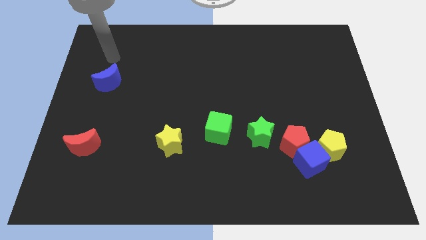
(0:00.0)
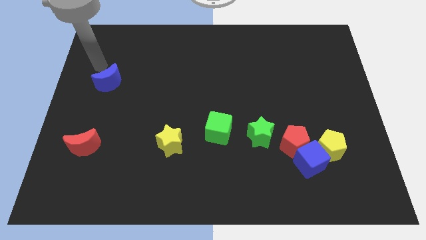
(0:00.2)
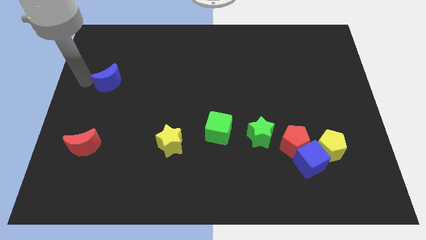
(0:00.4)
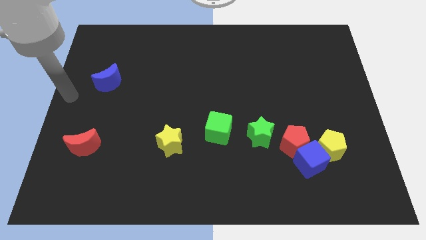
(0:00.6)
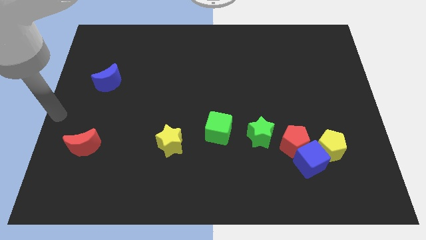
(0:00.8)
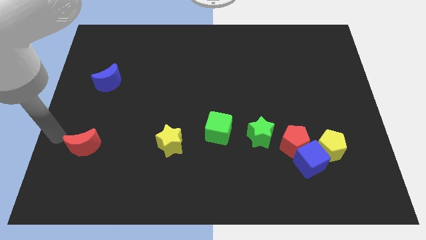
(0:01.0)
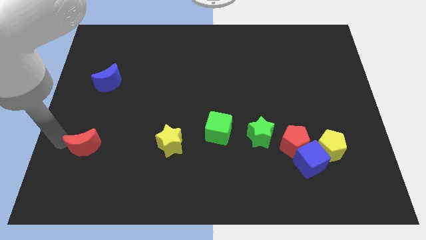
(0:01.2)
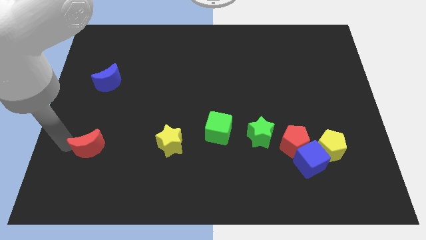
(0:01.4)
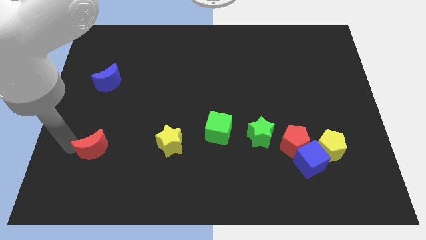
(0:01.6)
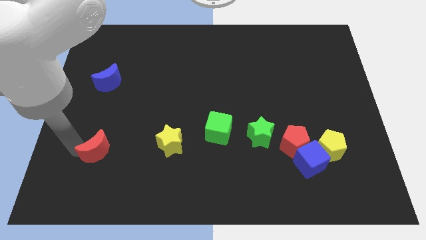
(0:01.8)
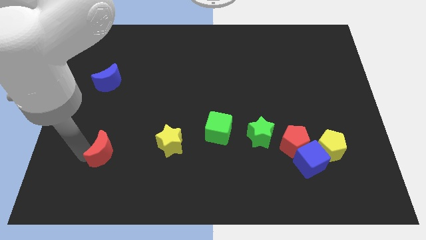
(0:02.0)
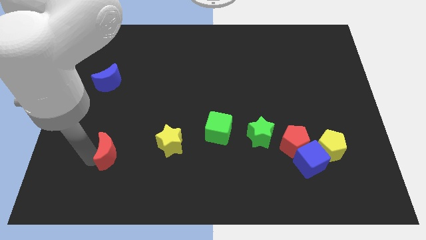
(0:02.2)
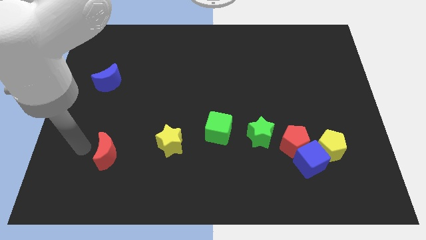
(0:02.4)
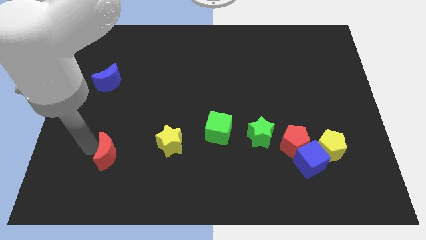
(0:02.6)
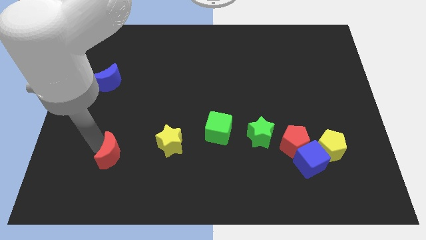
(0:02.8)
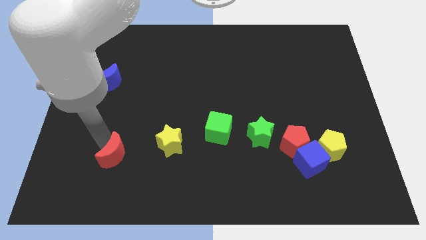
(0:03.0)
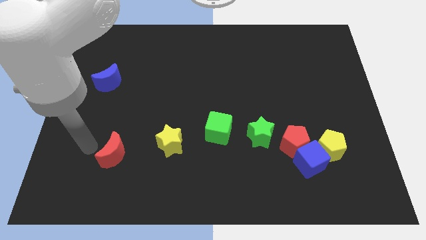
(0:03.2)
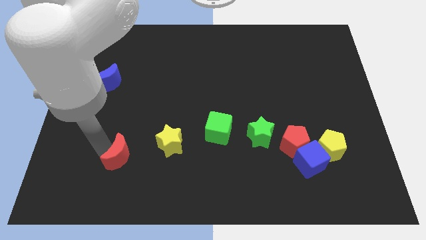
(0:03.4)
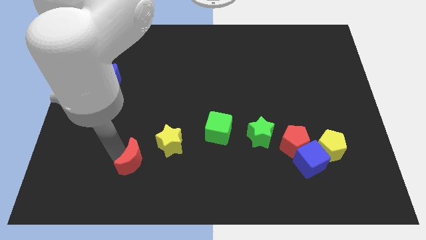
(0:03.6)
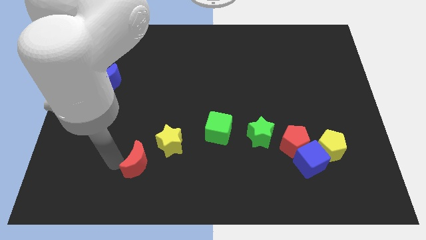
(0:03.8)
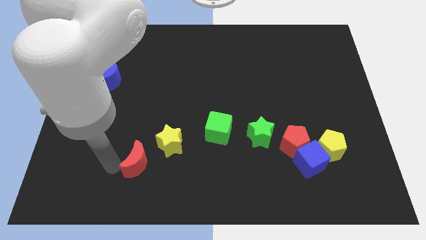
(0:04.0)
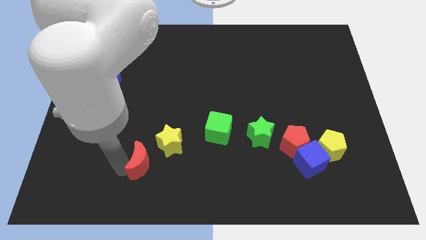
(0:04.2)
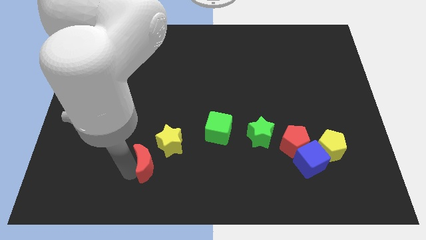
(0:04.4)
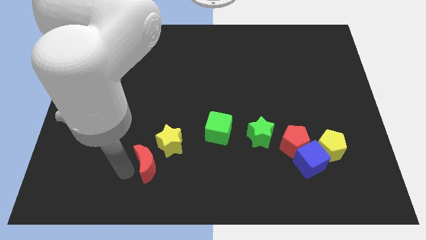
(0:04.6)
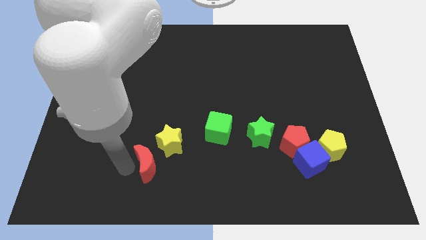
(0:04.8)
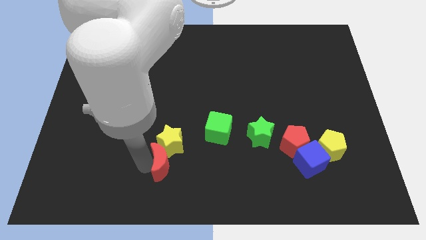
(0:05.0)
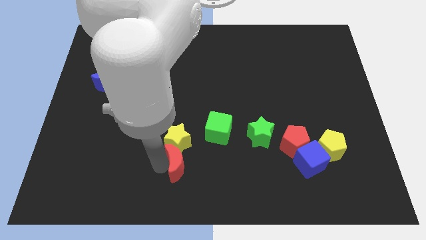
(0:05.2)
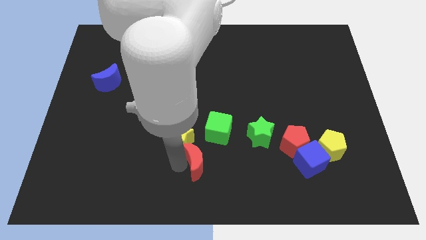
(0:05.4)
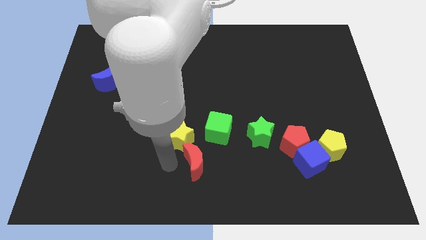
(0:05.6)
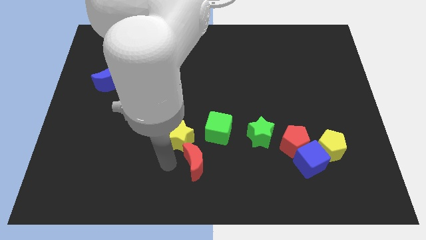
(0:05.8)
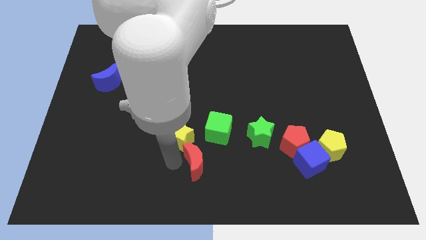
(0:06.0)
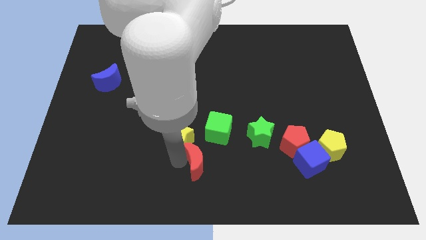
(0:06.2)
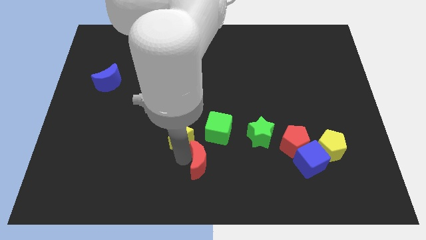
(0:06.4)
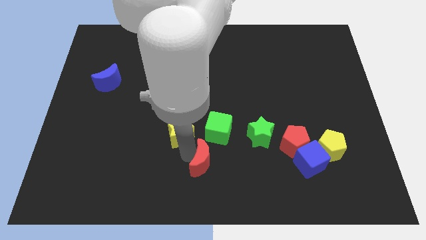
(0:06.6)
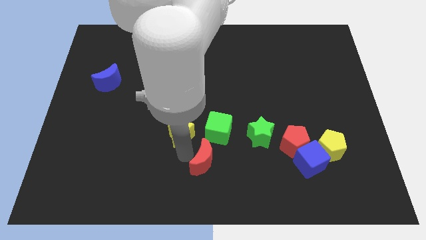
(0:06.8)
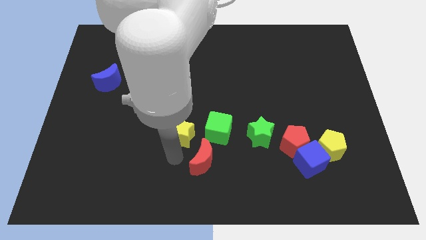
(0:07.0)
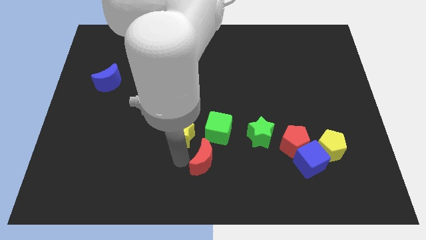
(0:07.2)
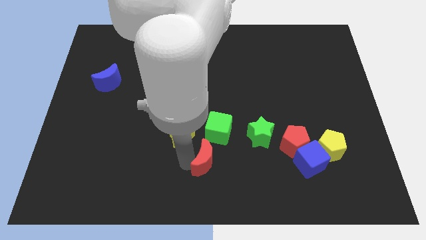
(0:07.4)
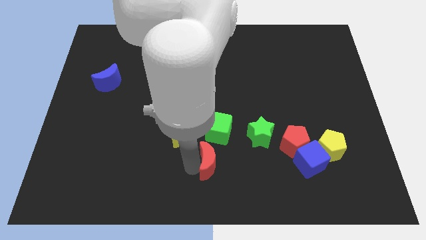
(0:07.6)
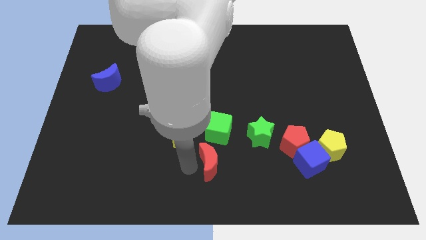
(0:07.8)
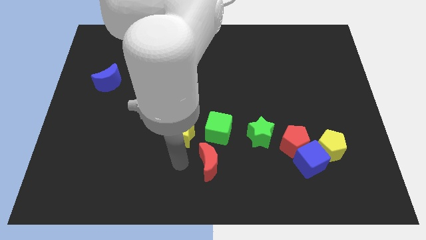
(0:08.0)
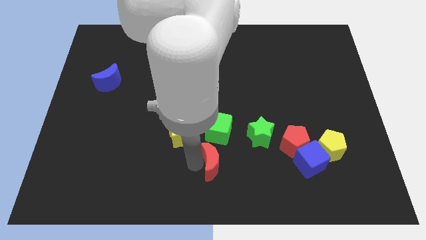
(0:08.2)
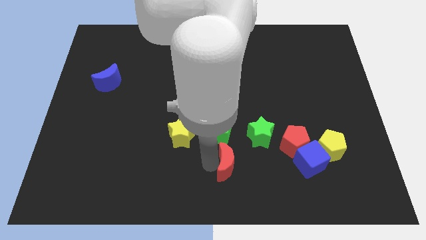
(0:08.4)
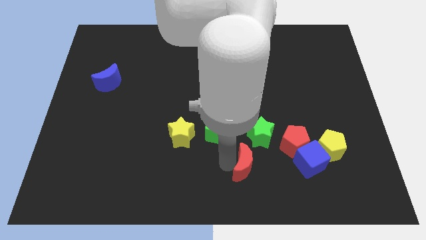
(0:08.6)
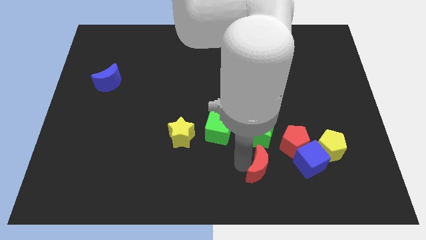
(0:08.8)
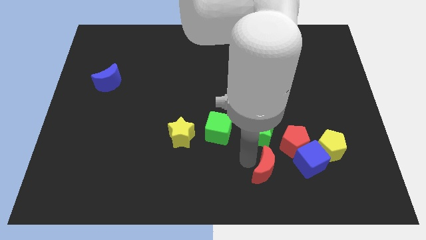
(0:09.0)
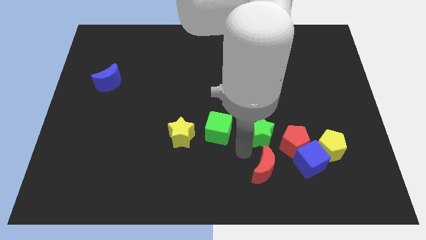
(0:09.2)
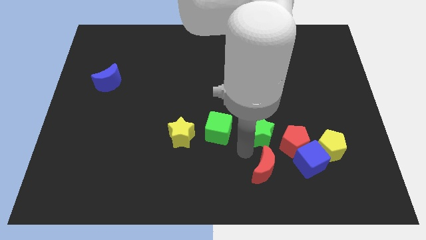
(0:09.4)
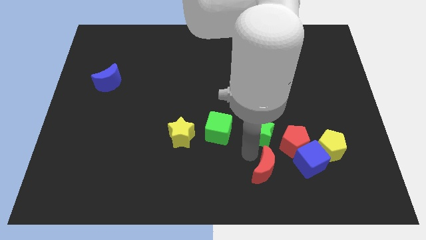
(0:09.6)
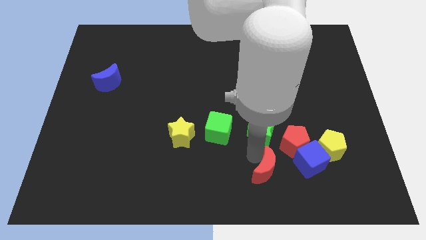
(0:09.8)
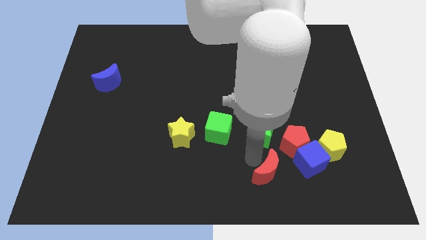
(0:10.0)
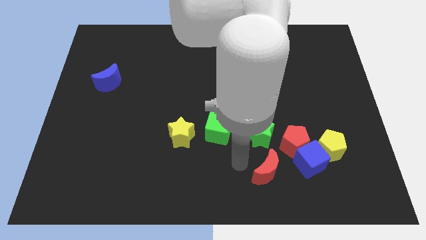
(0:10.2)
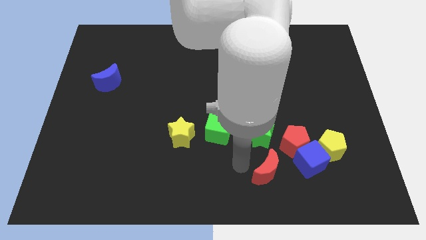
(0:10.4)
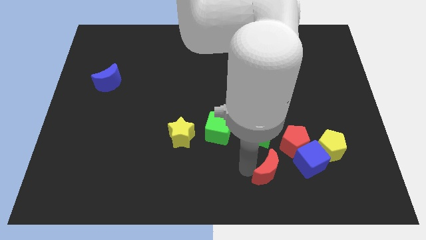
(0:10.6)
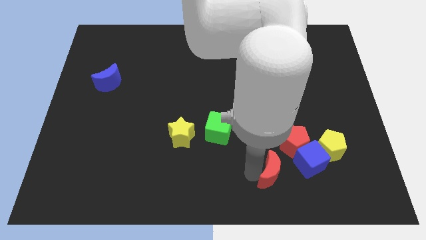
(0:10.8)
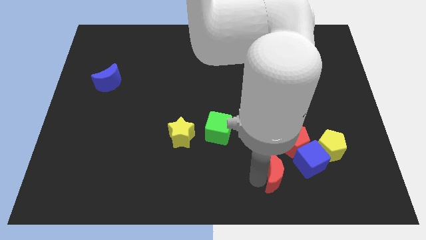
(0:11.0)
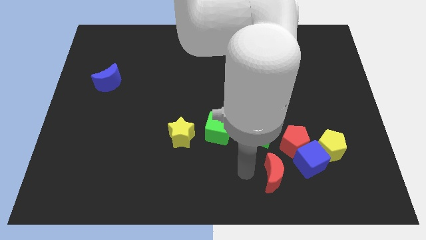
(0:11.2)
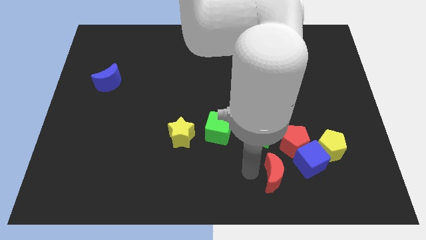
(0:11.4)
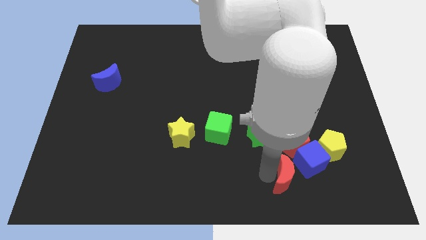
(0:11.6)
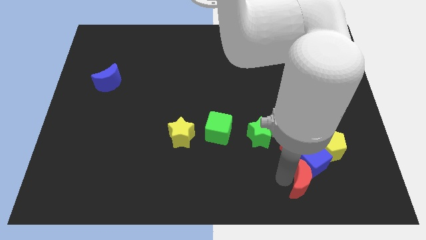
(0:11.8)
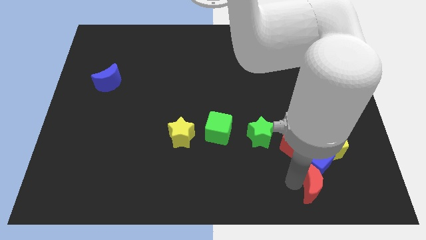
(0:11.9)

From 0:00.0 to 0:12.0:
put the red moon diagonally down and to the right of the blue cube

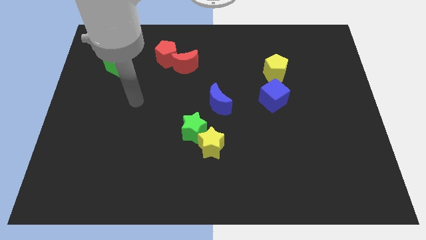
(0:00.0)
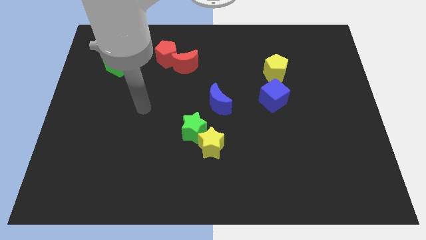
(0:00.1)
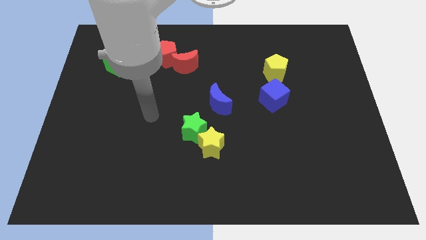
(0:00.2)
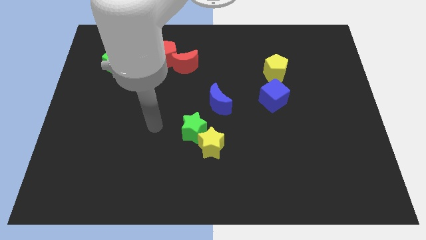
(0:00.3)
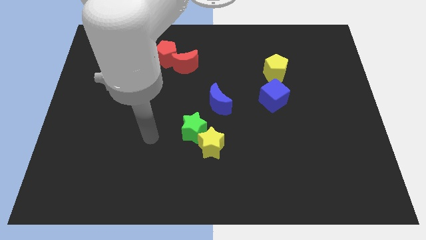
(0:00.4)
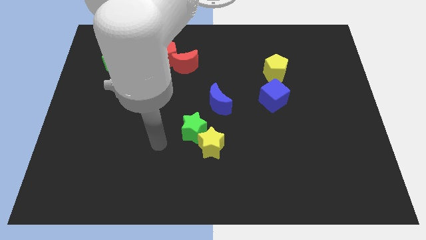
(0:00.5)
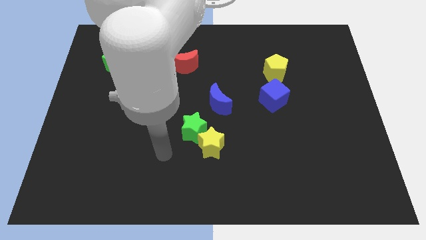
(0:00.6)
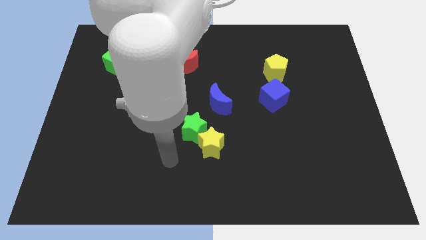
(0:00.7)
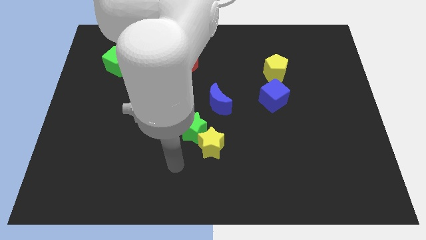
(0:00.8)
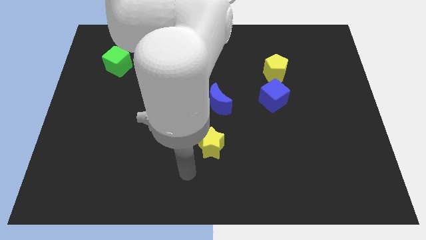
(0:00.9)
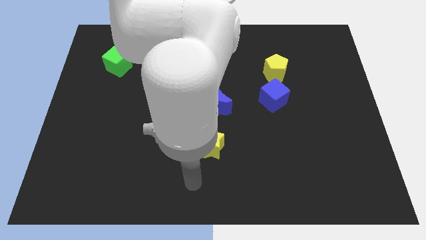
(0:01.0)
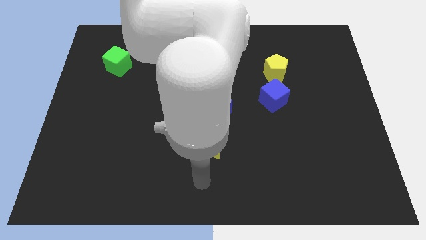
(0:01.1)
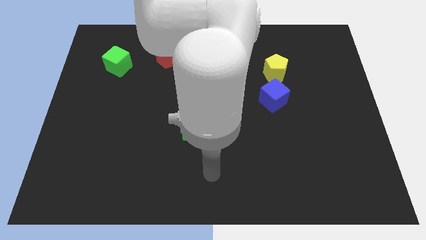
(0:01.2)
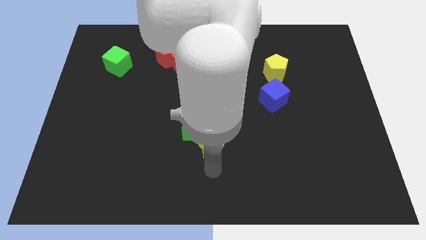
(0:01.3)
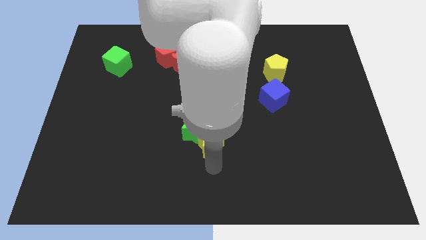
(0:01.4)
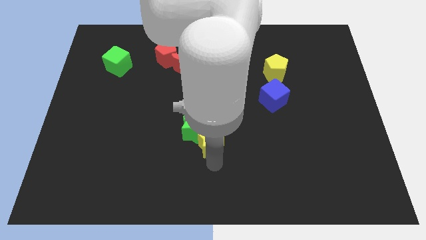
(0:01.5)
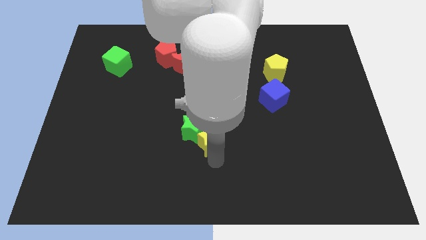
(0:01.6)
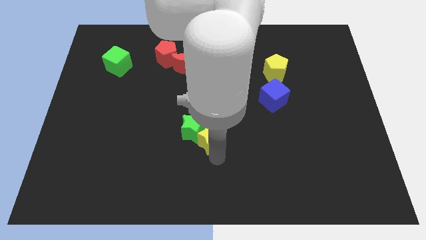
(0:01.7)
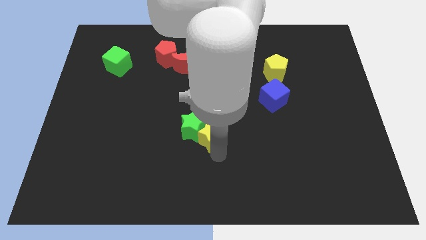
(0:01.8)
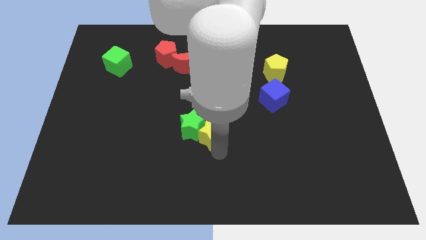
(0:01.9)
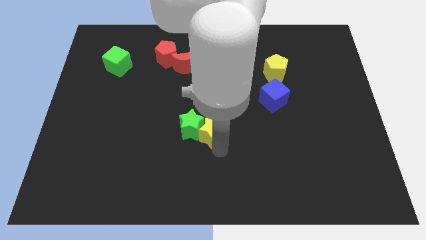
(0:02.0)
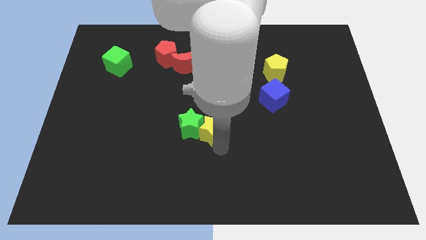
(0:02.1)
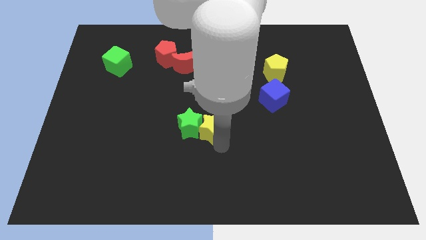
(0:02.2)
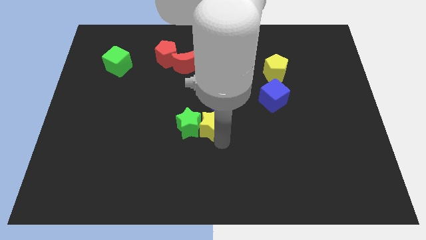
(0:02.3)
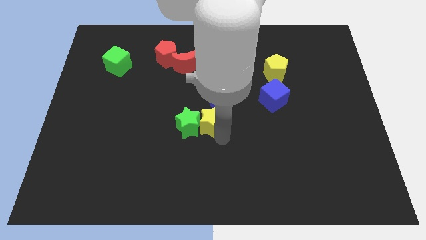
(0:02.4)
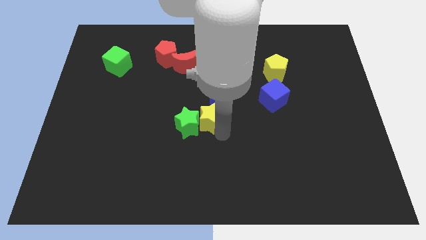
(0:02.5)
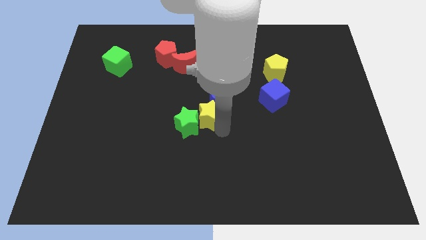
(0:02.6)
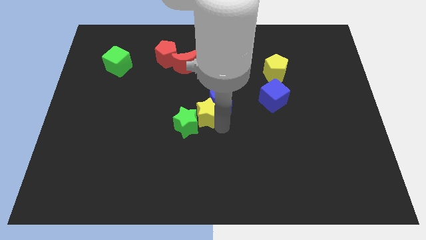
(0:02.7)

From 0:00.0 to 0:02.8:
move the yellow star just left of the blue moon
